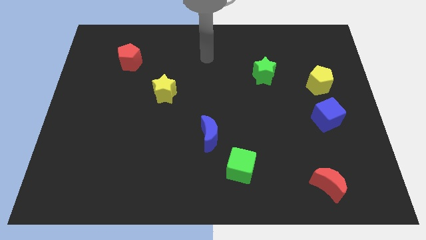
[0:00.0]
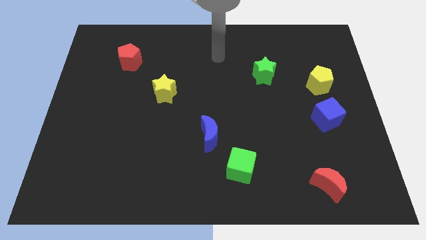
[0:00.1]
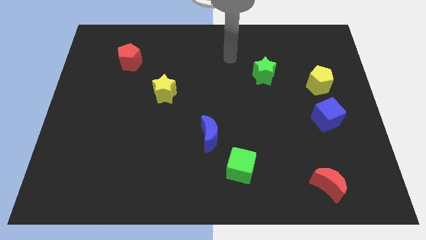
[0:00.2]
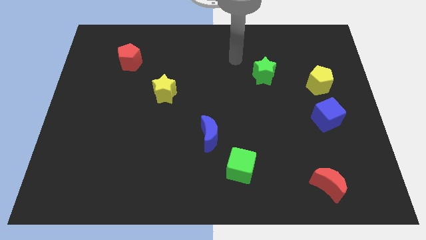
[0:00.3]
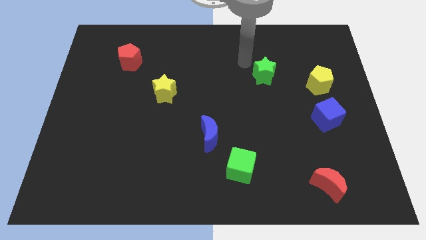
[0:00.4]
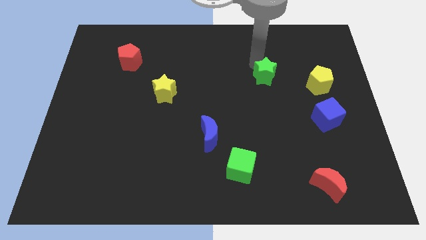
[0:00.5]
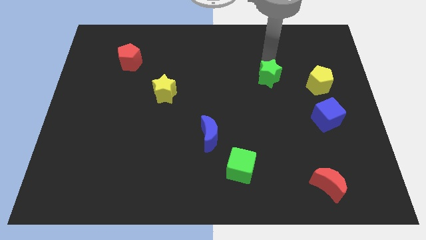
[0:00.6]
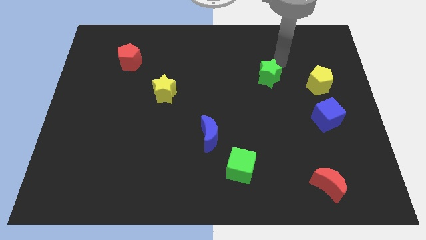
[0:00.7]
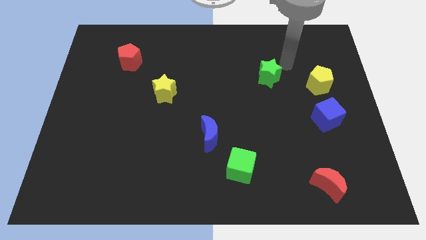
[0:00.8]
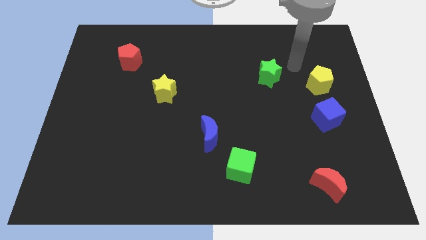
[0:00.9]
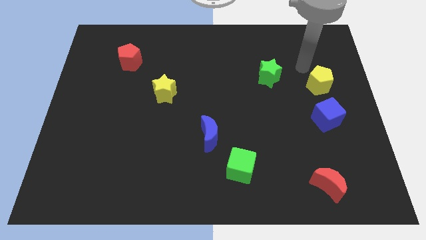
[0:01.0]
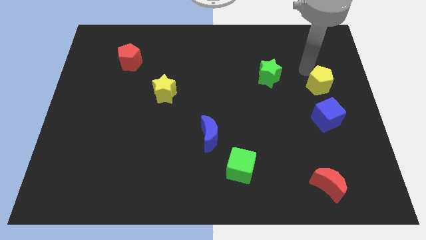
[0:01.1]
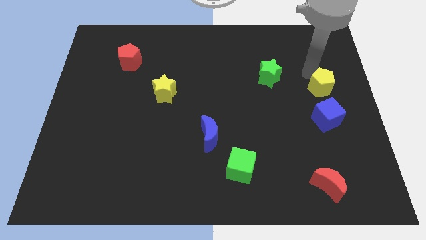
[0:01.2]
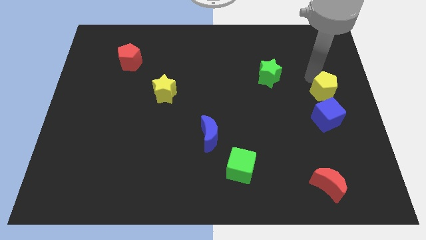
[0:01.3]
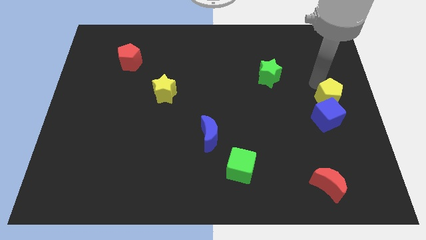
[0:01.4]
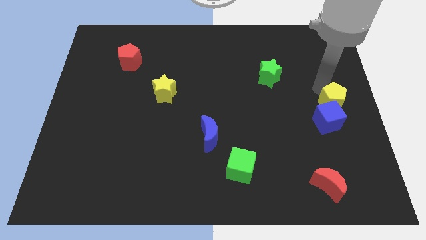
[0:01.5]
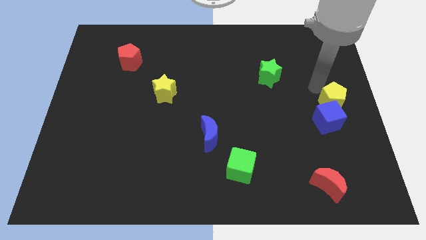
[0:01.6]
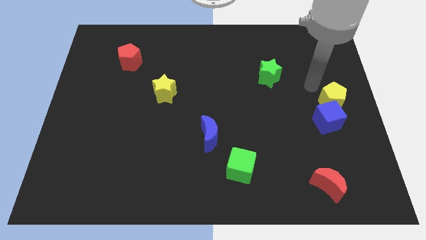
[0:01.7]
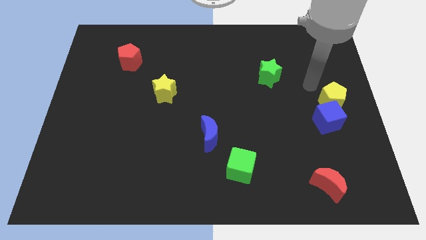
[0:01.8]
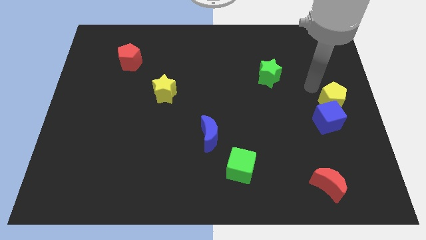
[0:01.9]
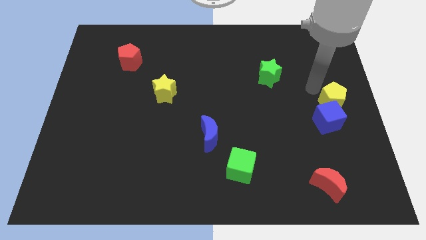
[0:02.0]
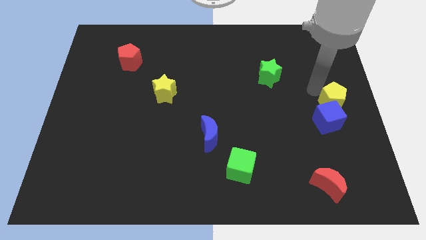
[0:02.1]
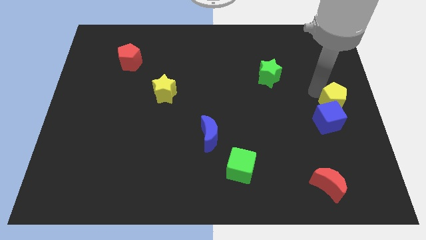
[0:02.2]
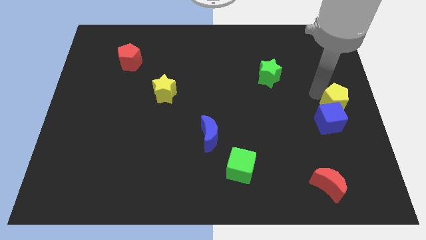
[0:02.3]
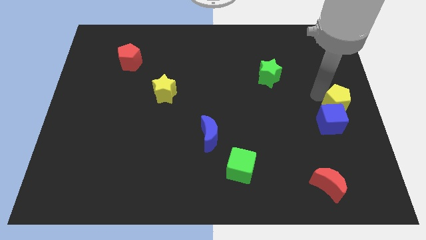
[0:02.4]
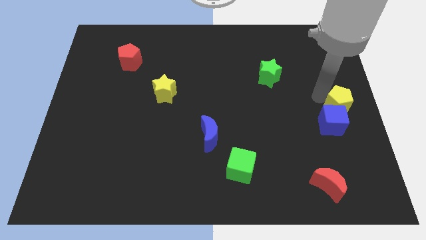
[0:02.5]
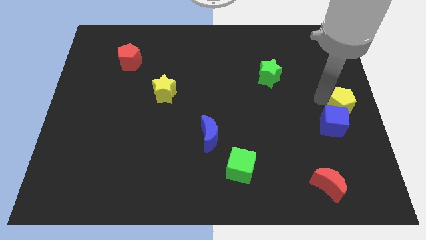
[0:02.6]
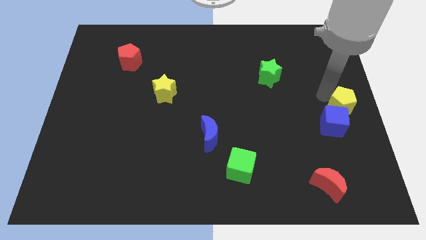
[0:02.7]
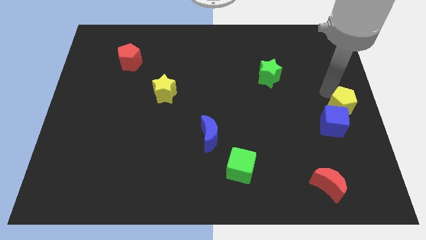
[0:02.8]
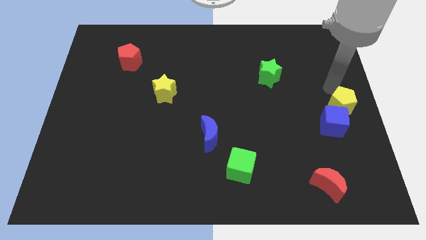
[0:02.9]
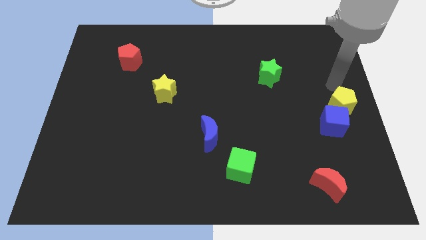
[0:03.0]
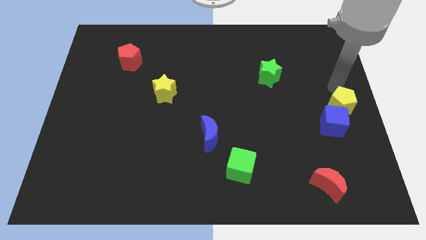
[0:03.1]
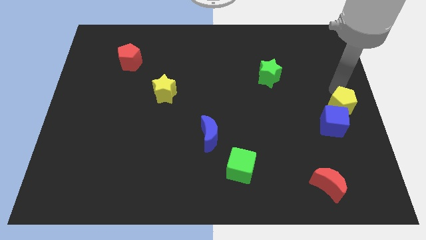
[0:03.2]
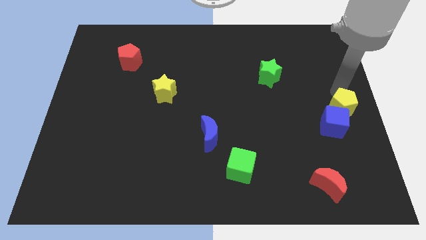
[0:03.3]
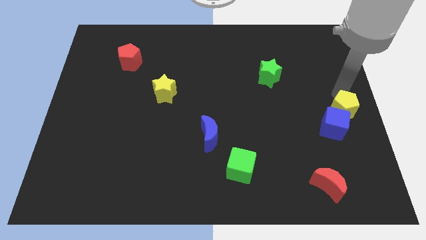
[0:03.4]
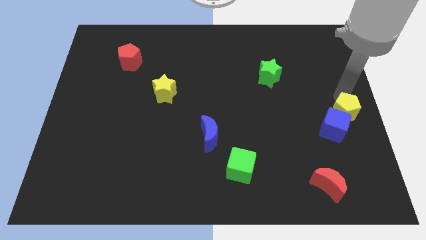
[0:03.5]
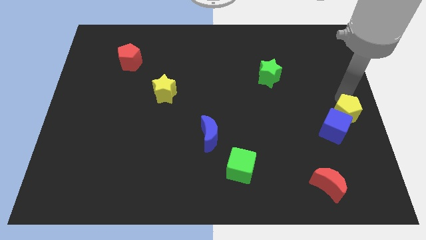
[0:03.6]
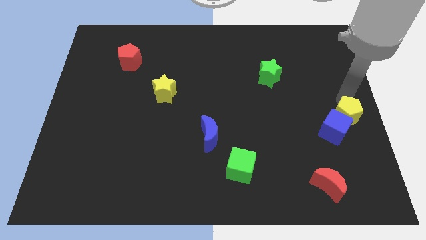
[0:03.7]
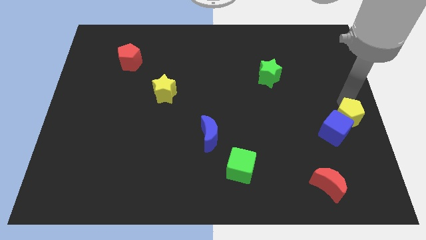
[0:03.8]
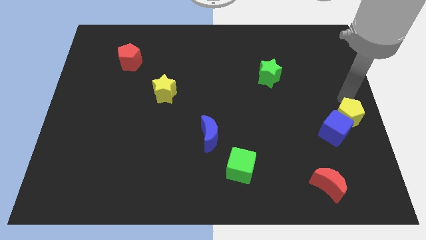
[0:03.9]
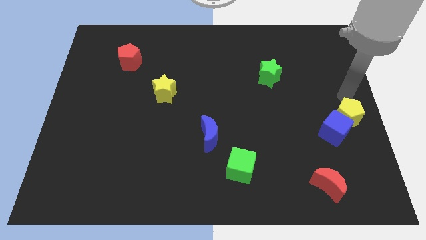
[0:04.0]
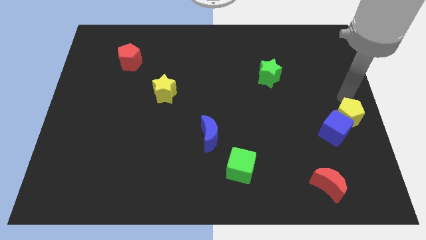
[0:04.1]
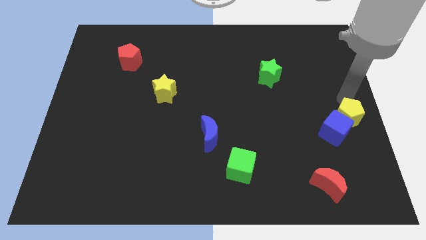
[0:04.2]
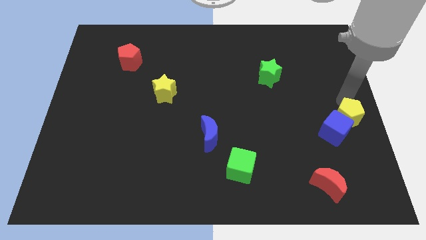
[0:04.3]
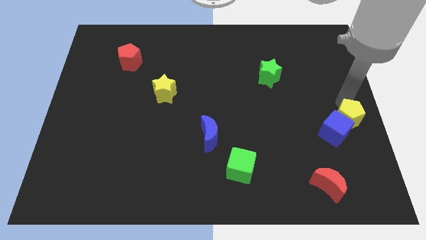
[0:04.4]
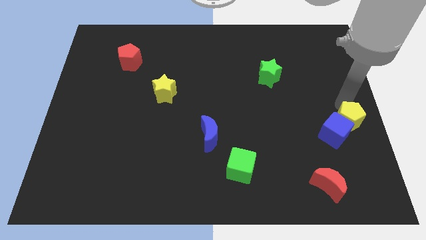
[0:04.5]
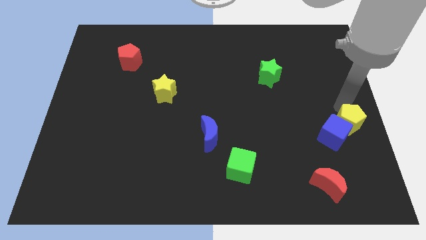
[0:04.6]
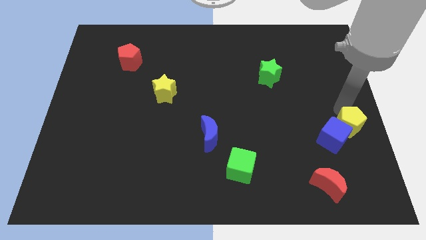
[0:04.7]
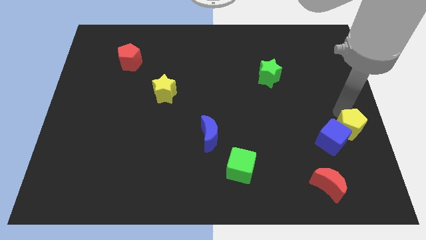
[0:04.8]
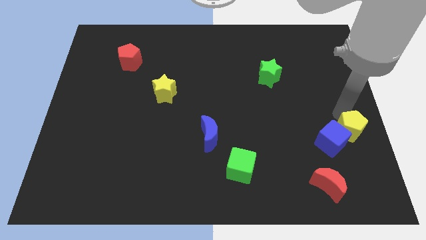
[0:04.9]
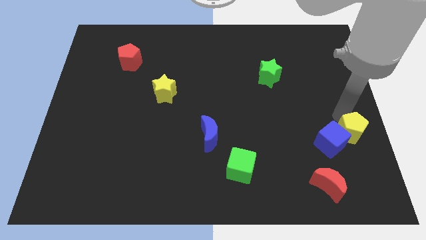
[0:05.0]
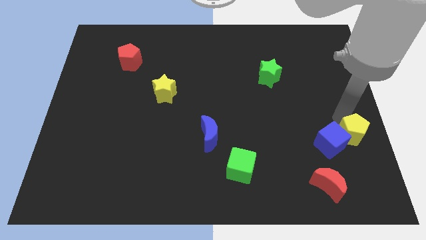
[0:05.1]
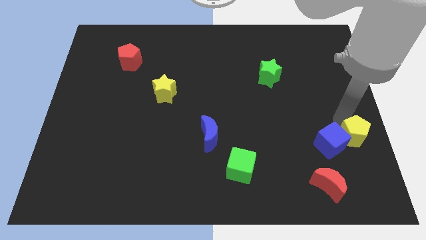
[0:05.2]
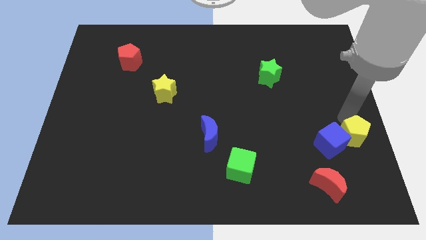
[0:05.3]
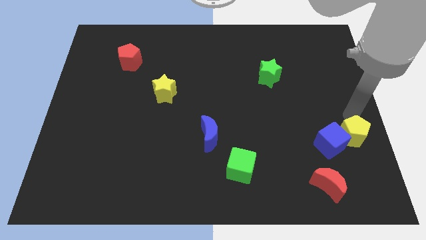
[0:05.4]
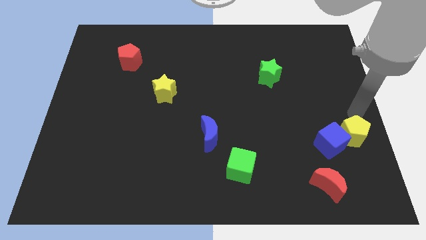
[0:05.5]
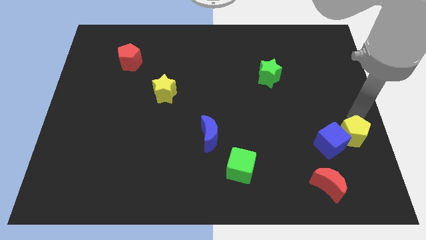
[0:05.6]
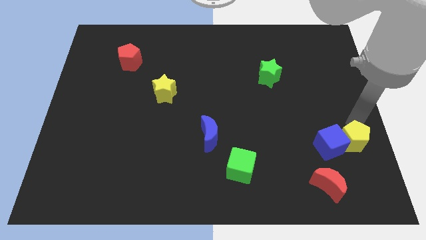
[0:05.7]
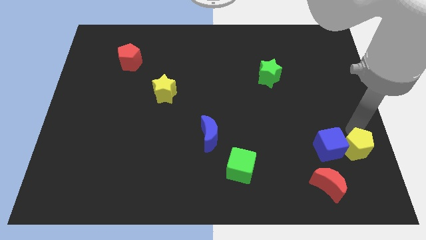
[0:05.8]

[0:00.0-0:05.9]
move the yellow pentagon to the top right of the red moon

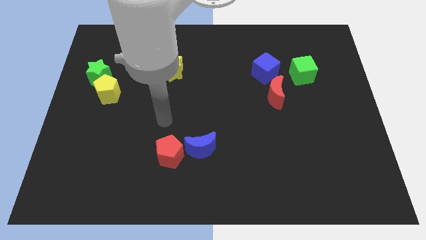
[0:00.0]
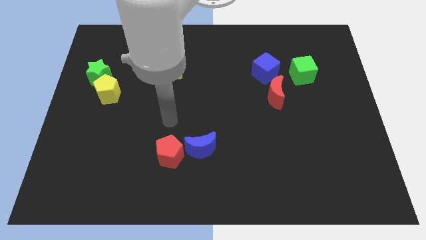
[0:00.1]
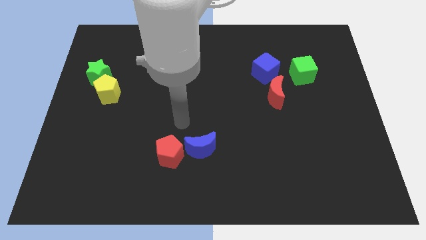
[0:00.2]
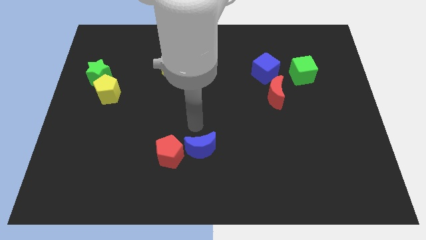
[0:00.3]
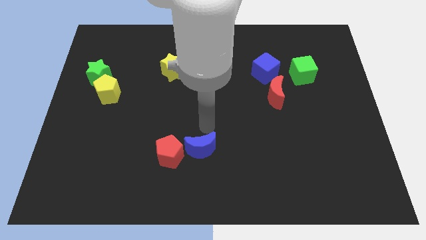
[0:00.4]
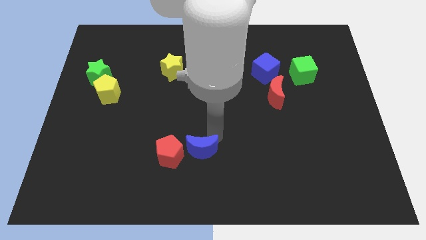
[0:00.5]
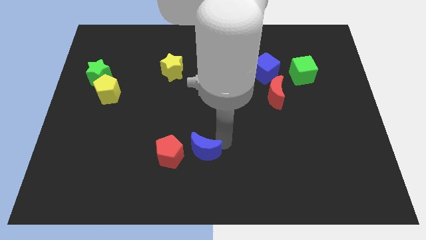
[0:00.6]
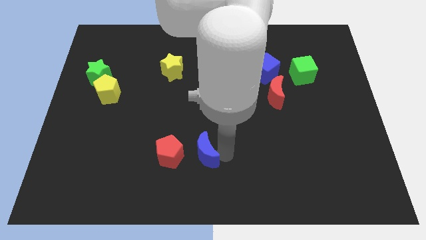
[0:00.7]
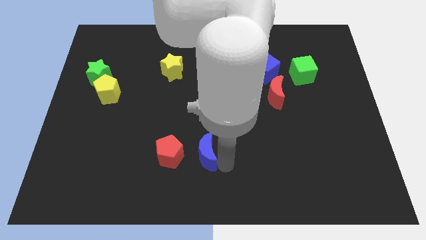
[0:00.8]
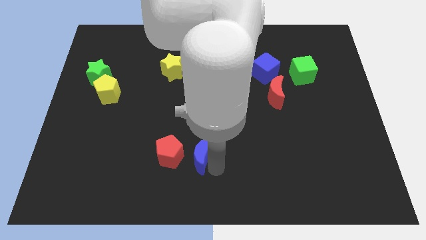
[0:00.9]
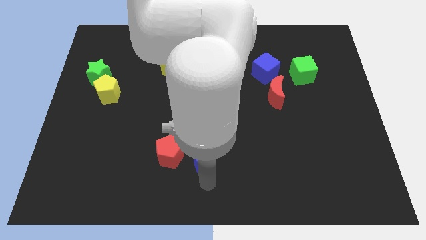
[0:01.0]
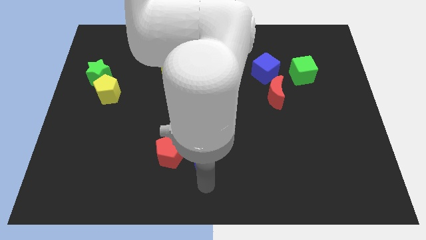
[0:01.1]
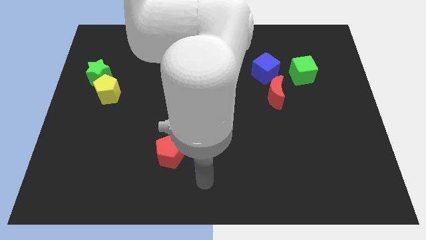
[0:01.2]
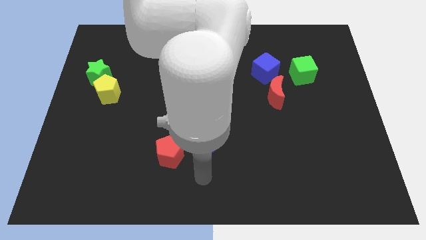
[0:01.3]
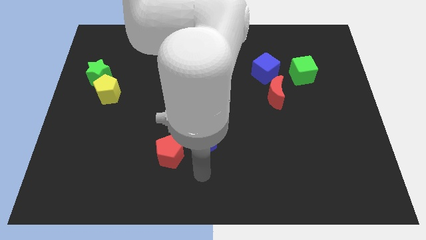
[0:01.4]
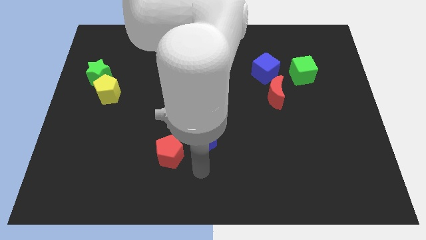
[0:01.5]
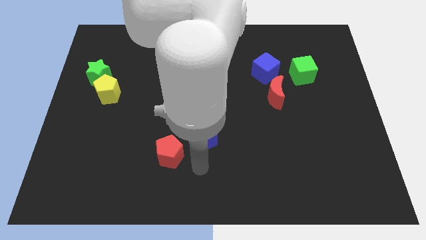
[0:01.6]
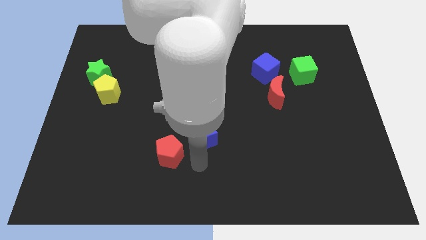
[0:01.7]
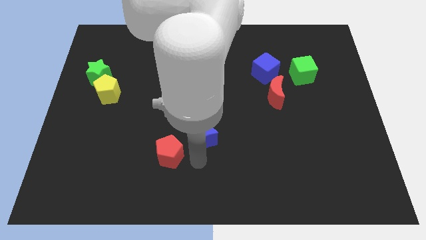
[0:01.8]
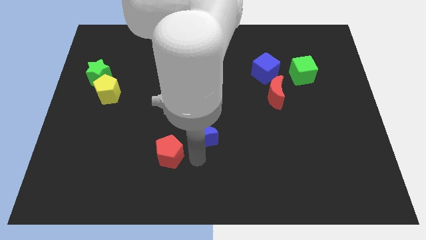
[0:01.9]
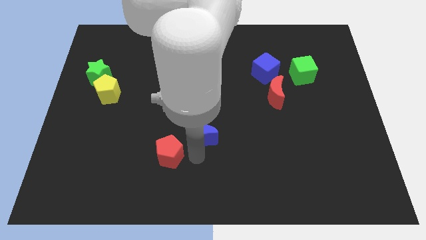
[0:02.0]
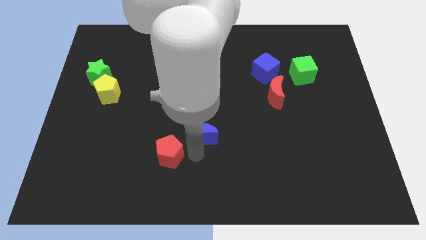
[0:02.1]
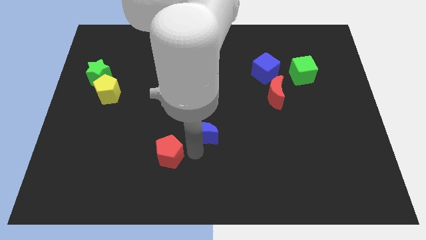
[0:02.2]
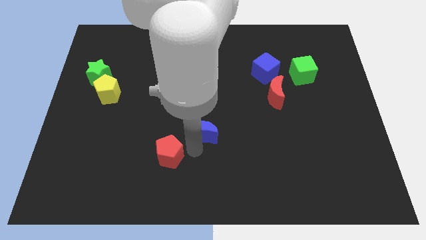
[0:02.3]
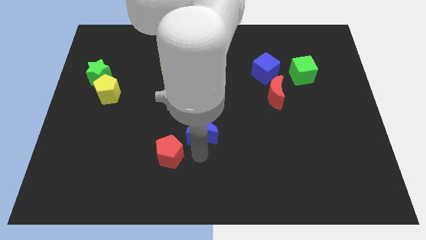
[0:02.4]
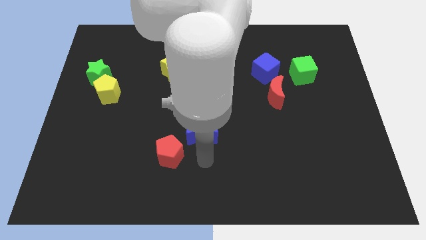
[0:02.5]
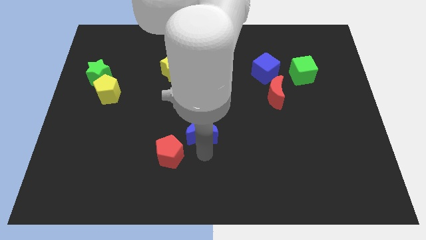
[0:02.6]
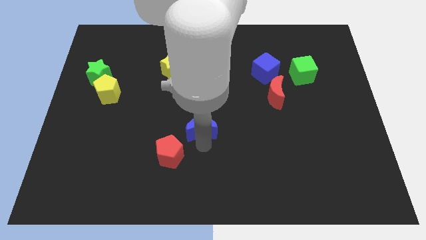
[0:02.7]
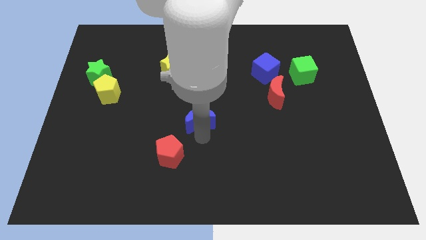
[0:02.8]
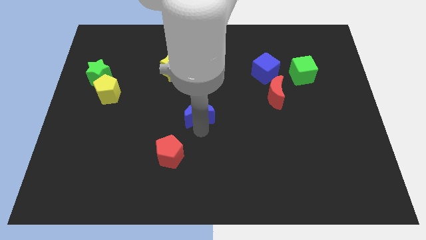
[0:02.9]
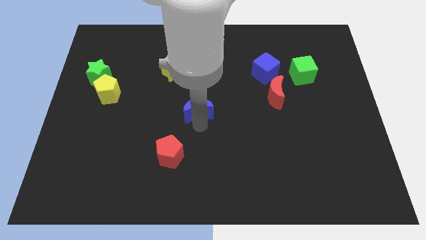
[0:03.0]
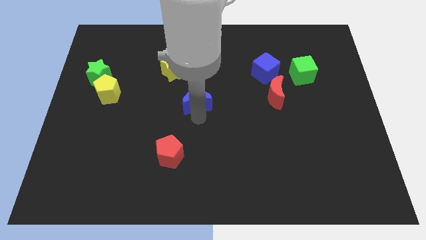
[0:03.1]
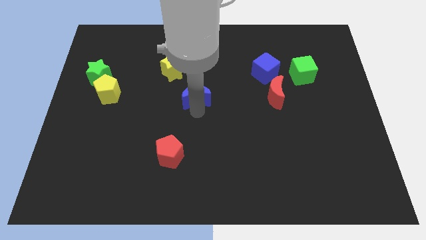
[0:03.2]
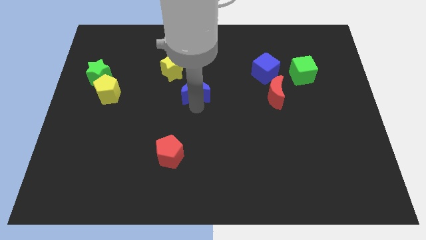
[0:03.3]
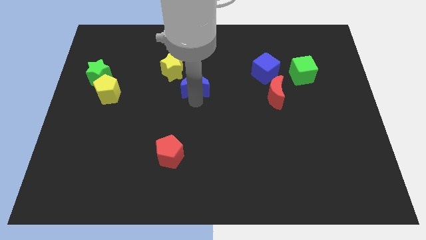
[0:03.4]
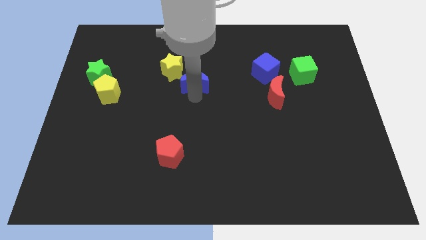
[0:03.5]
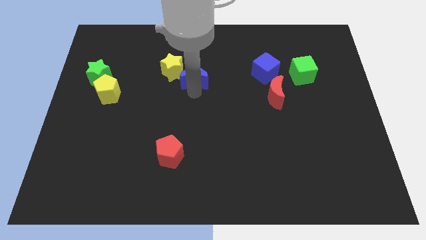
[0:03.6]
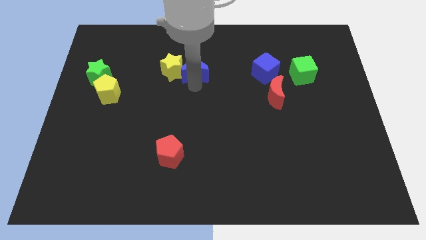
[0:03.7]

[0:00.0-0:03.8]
push the blue moon to the top right side of the yellow star
